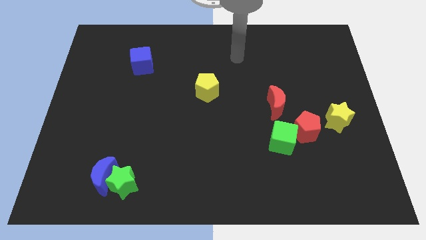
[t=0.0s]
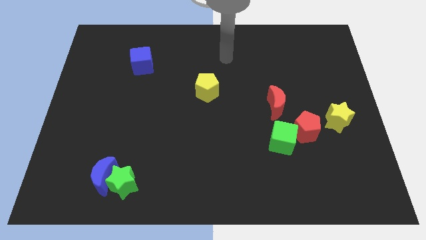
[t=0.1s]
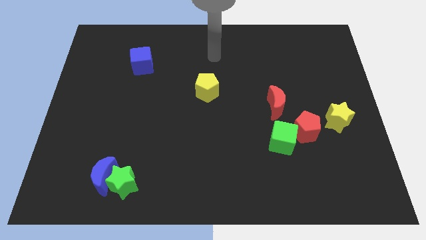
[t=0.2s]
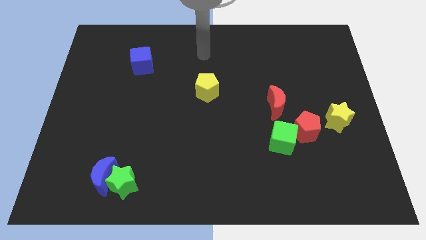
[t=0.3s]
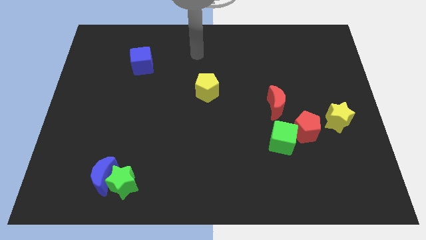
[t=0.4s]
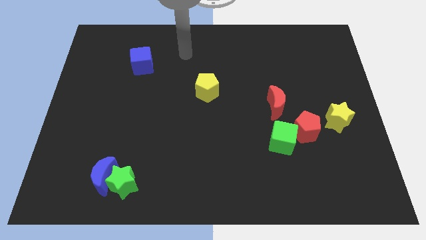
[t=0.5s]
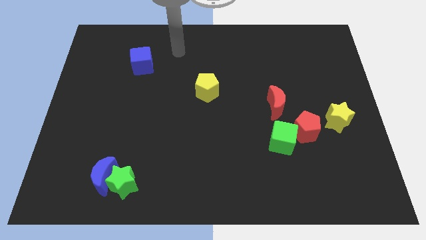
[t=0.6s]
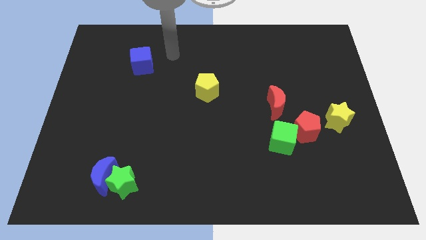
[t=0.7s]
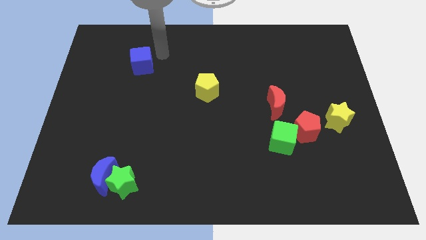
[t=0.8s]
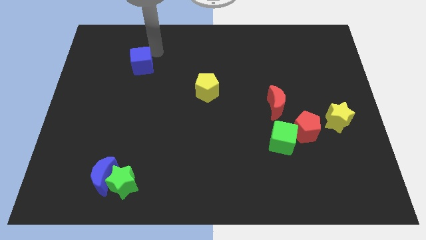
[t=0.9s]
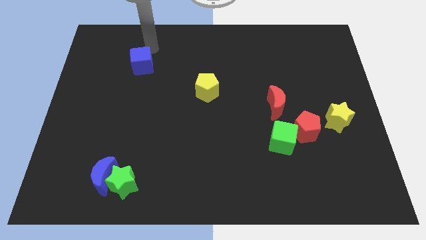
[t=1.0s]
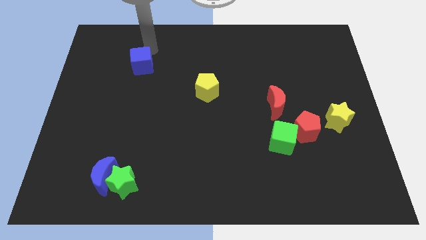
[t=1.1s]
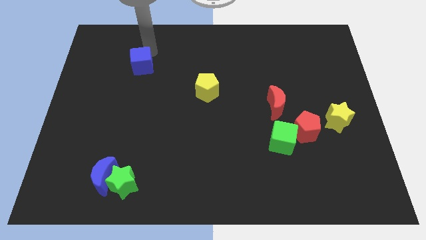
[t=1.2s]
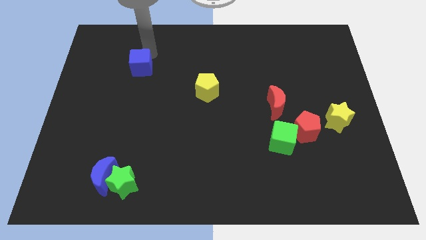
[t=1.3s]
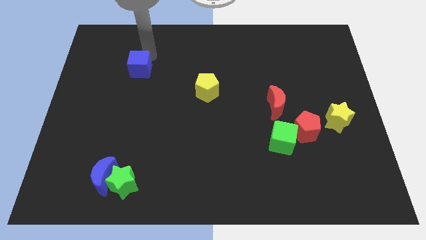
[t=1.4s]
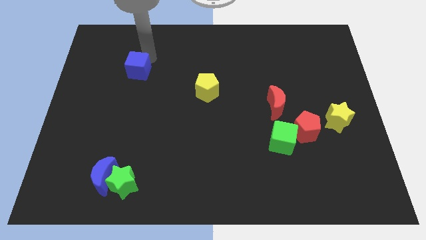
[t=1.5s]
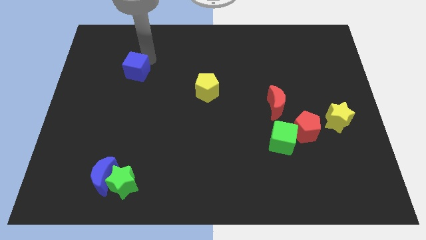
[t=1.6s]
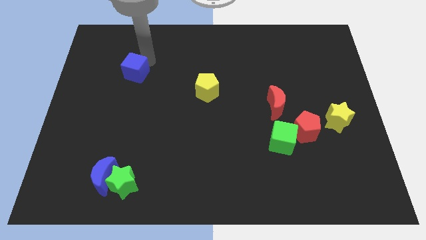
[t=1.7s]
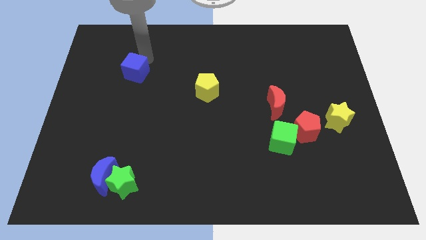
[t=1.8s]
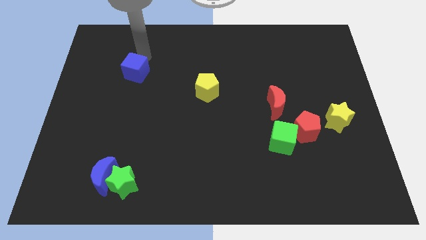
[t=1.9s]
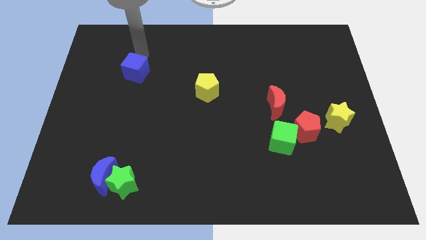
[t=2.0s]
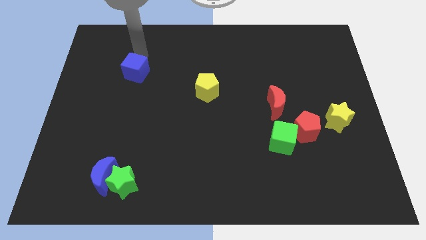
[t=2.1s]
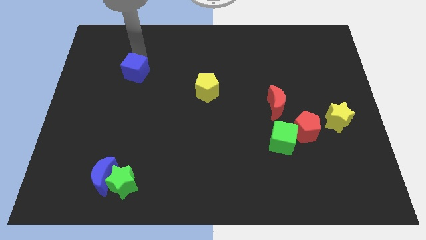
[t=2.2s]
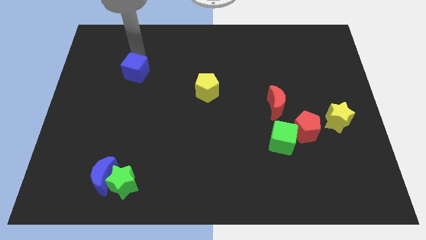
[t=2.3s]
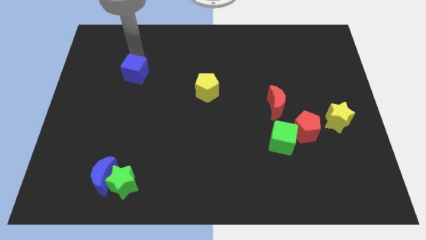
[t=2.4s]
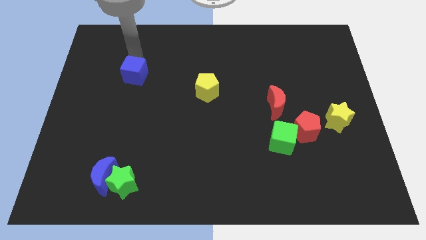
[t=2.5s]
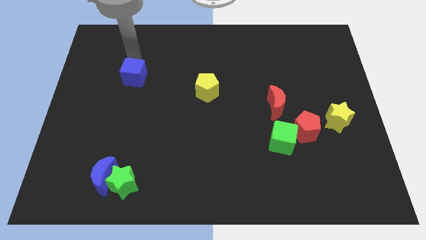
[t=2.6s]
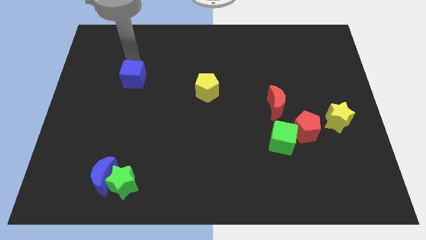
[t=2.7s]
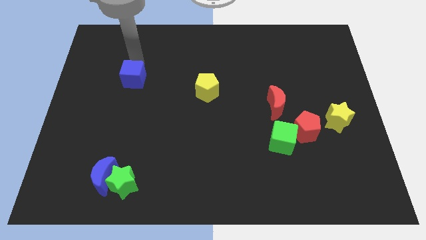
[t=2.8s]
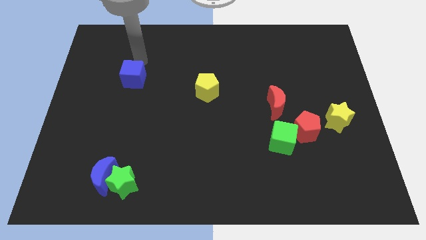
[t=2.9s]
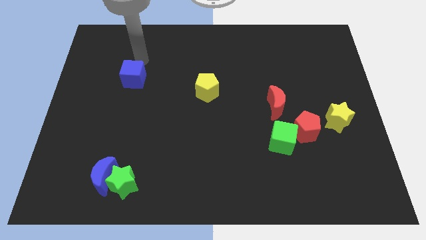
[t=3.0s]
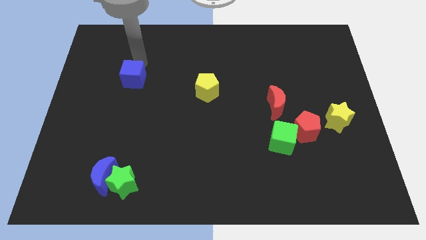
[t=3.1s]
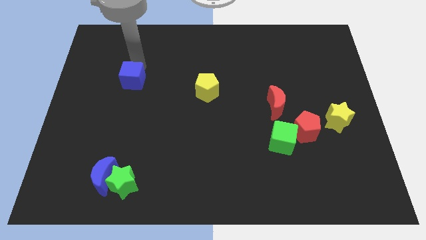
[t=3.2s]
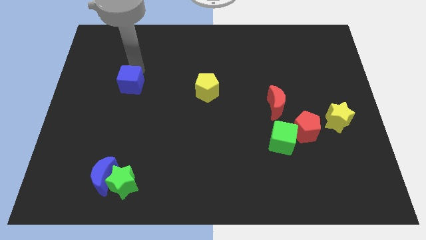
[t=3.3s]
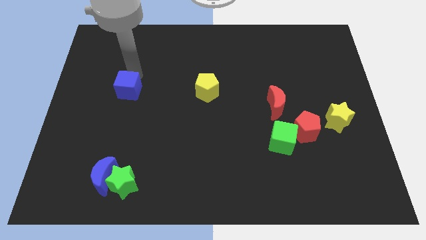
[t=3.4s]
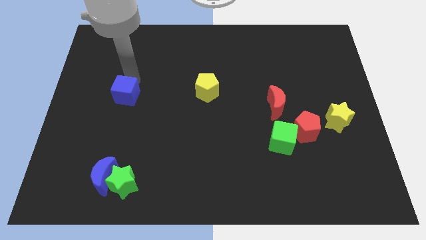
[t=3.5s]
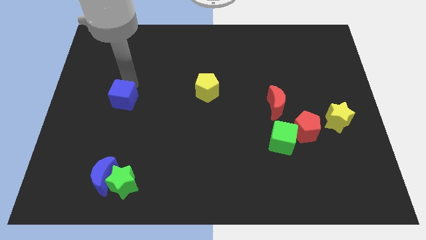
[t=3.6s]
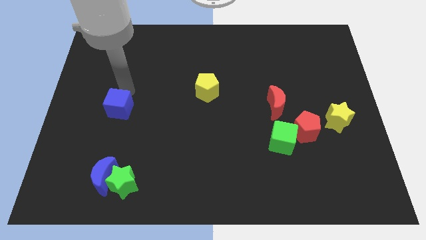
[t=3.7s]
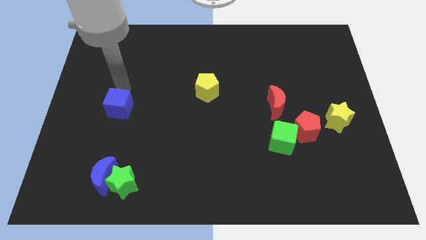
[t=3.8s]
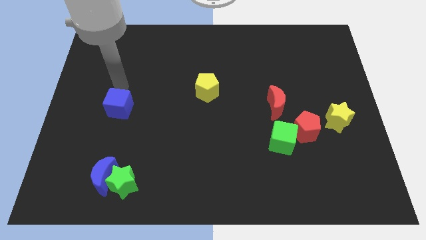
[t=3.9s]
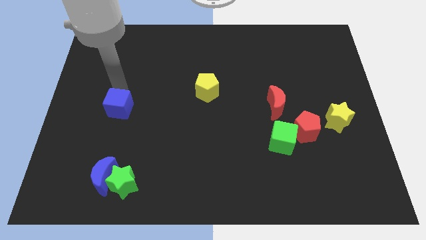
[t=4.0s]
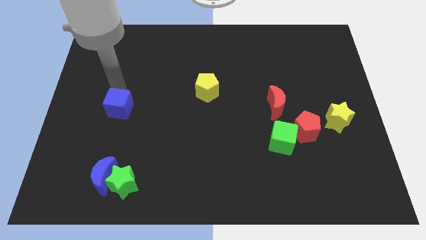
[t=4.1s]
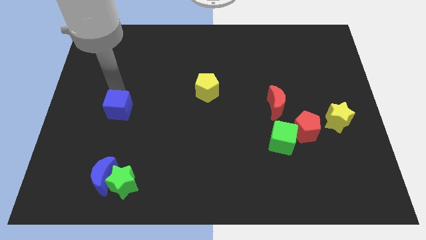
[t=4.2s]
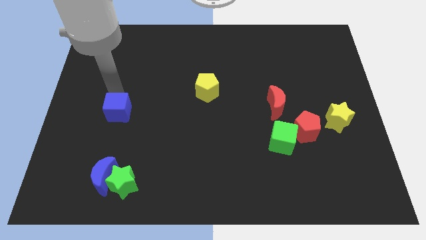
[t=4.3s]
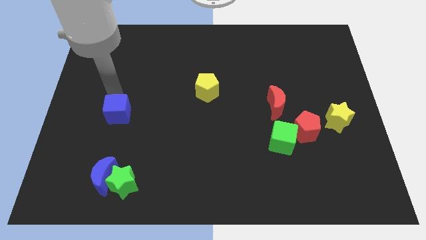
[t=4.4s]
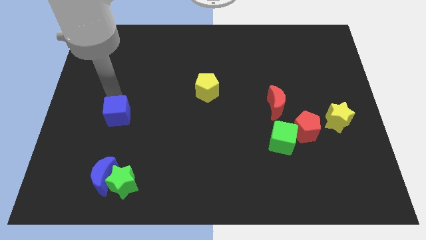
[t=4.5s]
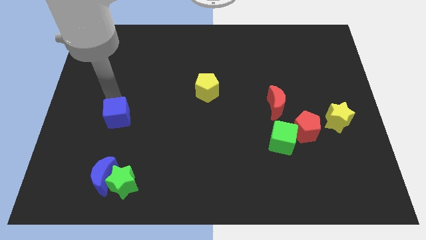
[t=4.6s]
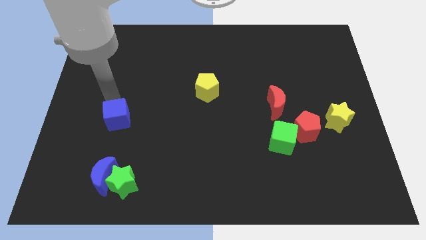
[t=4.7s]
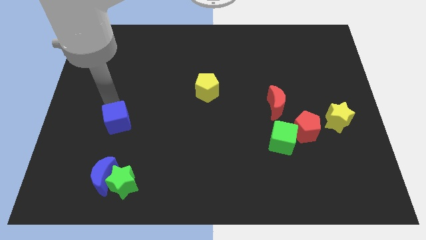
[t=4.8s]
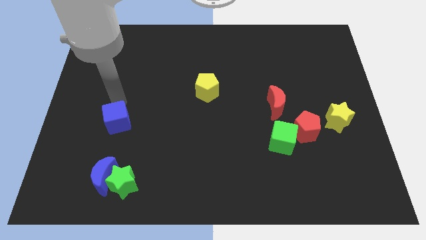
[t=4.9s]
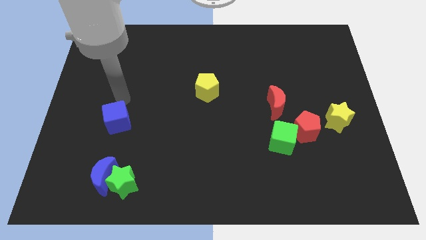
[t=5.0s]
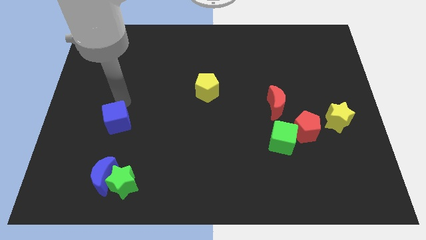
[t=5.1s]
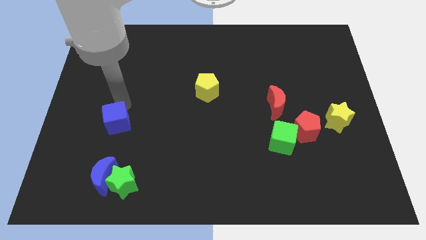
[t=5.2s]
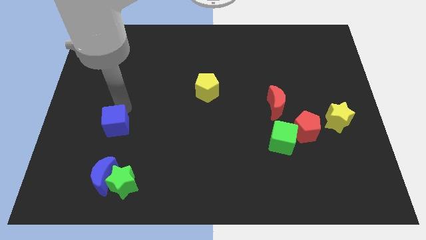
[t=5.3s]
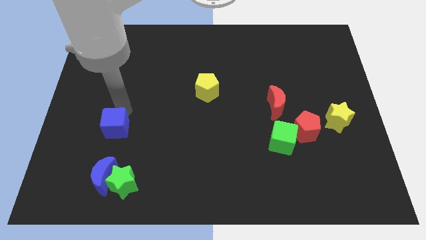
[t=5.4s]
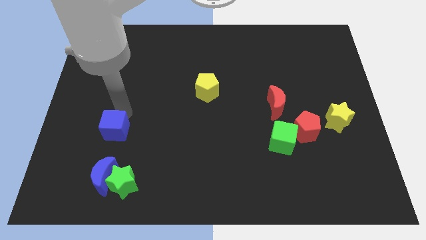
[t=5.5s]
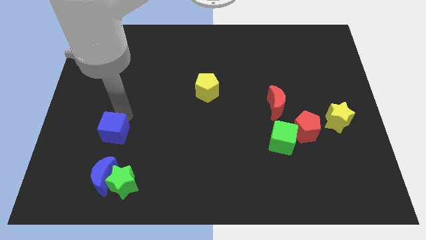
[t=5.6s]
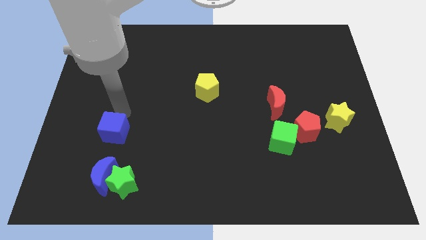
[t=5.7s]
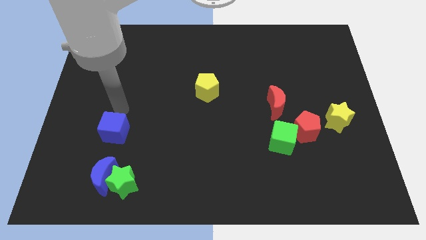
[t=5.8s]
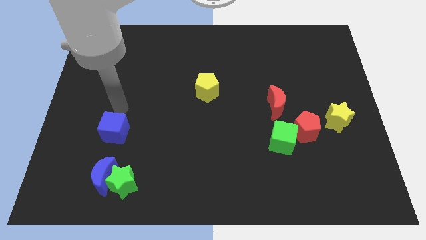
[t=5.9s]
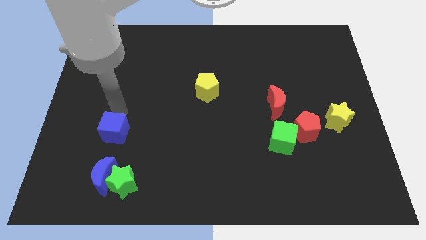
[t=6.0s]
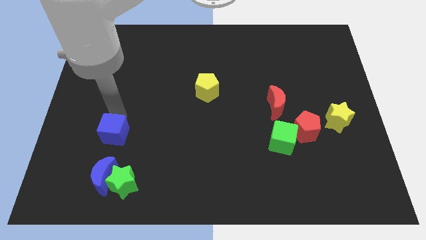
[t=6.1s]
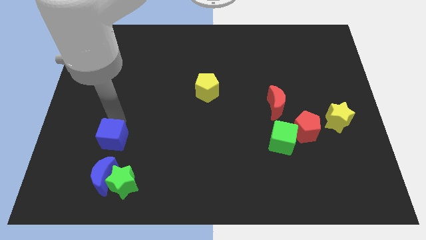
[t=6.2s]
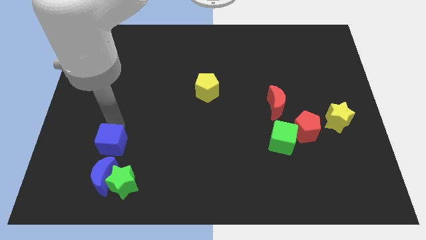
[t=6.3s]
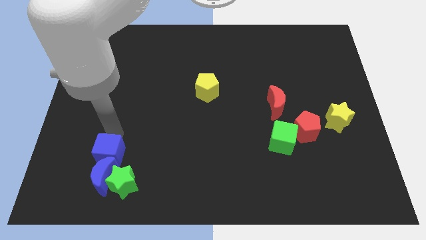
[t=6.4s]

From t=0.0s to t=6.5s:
move the blue cube close to the blue moon
